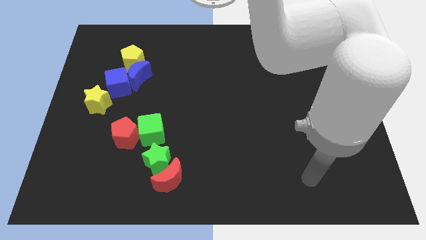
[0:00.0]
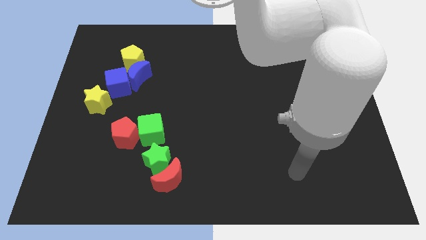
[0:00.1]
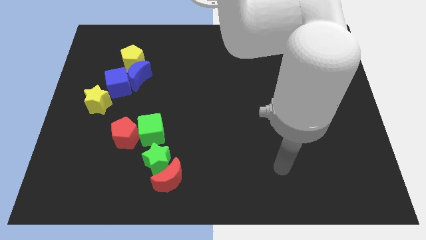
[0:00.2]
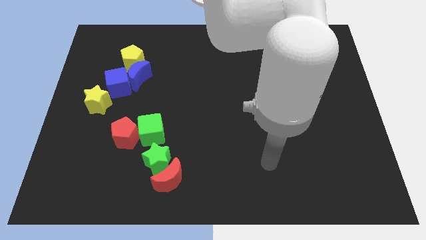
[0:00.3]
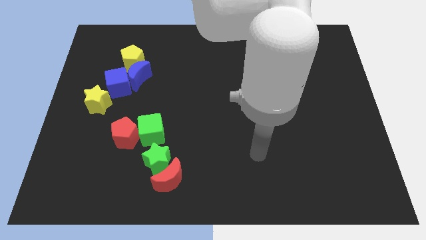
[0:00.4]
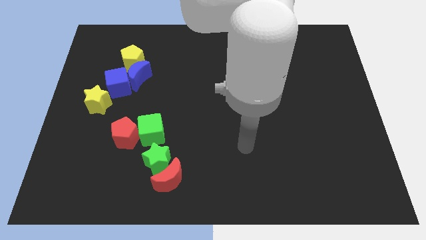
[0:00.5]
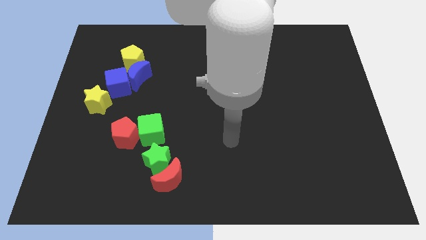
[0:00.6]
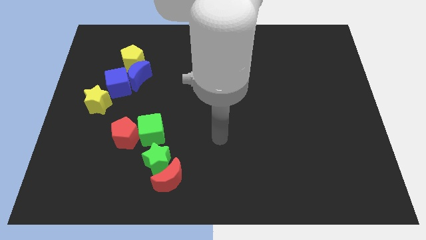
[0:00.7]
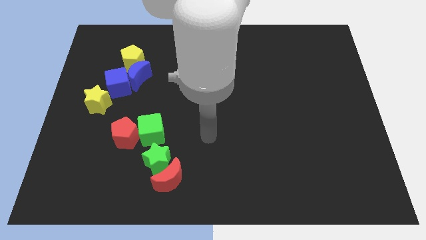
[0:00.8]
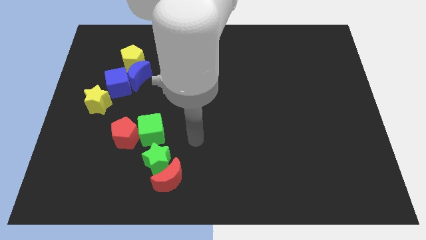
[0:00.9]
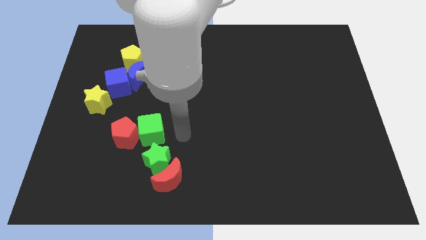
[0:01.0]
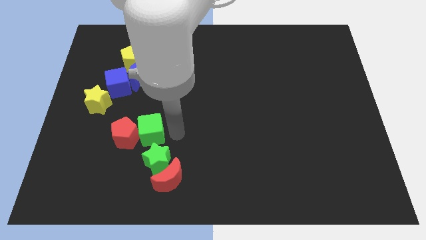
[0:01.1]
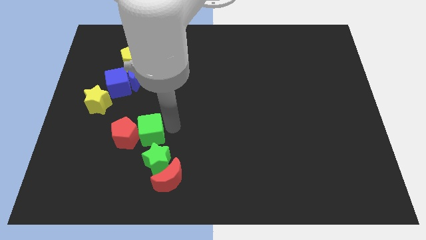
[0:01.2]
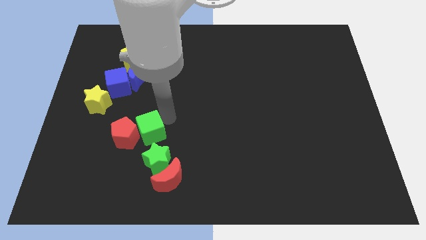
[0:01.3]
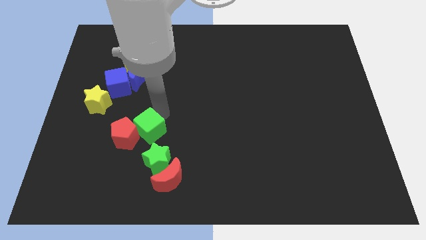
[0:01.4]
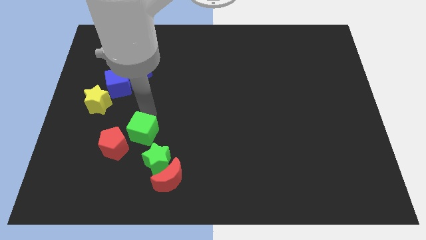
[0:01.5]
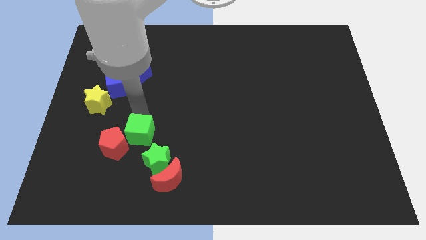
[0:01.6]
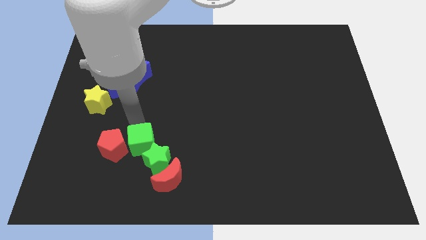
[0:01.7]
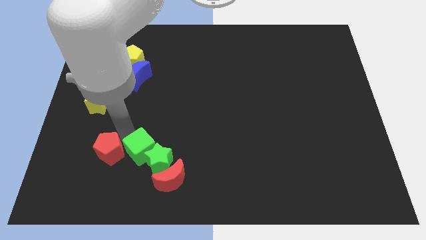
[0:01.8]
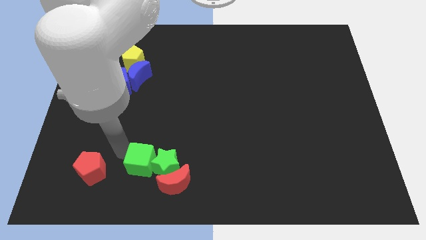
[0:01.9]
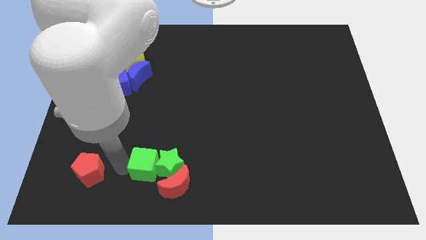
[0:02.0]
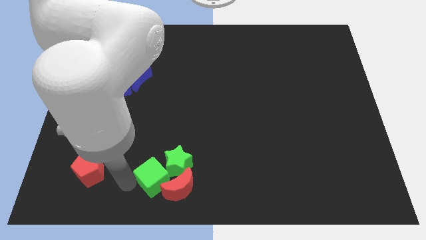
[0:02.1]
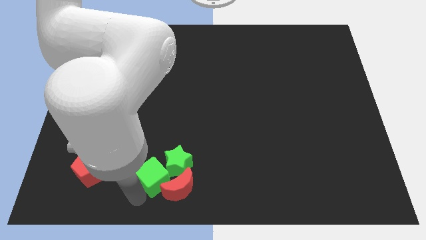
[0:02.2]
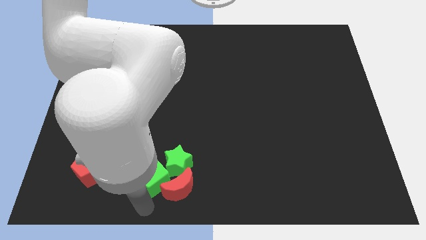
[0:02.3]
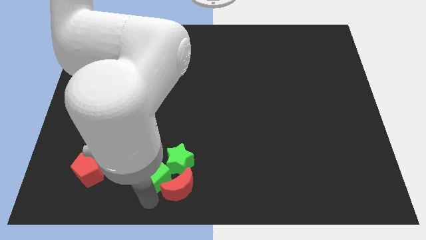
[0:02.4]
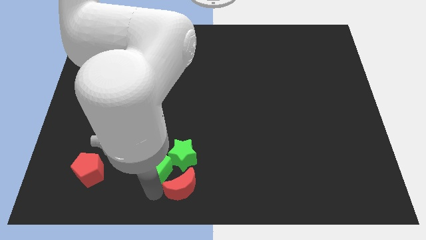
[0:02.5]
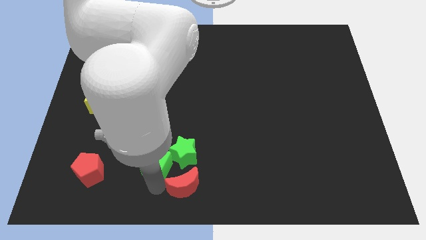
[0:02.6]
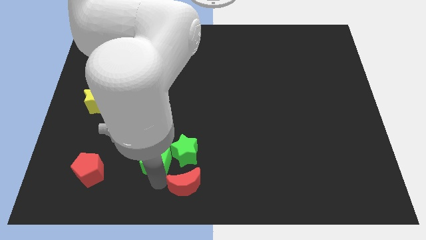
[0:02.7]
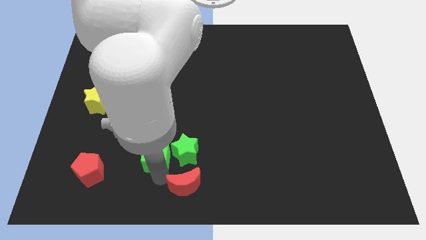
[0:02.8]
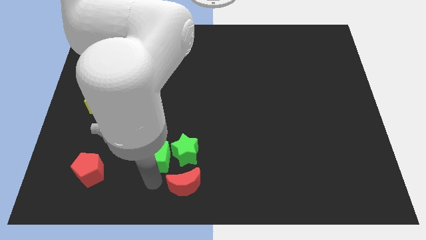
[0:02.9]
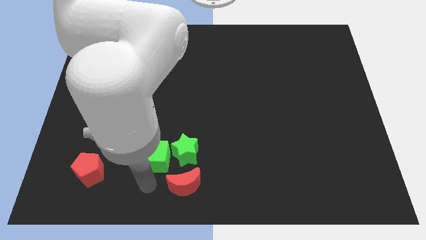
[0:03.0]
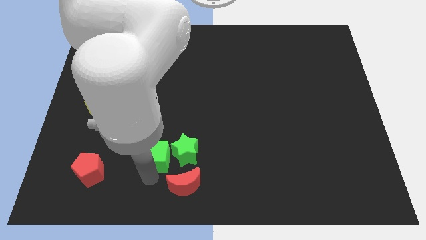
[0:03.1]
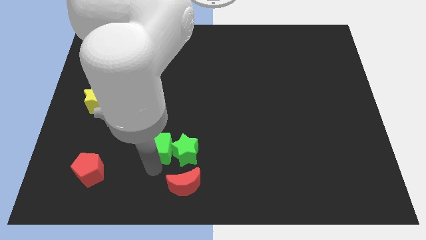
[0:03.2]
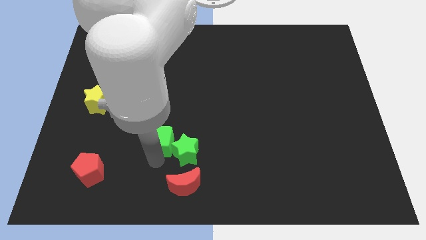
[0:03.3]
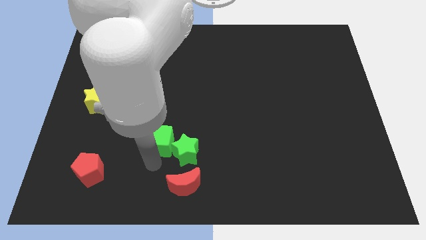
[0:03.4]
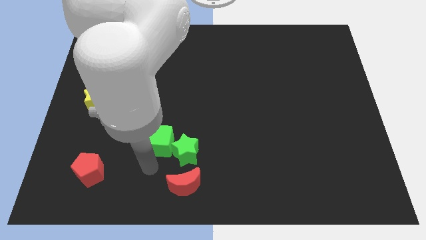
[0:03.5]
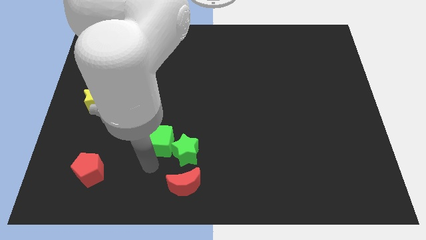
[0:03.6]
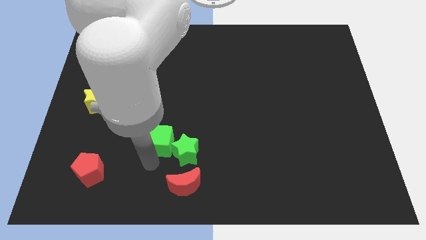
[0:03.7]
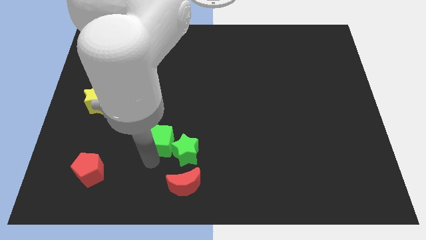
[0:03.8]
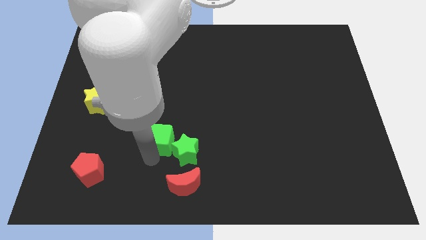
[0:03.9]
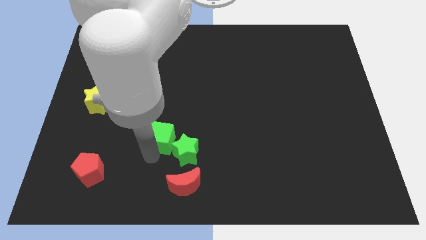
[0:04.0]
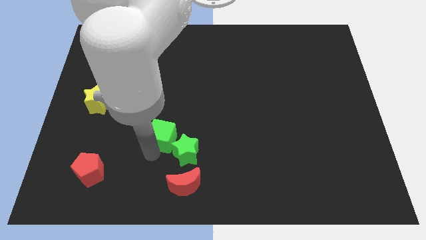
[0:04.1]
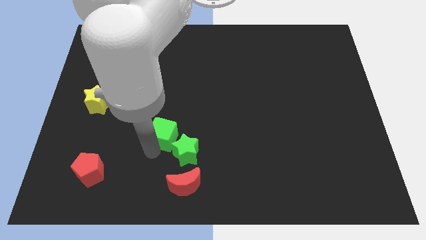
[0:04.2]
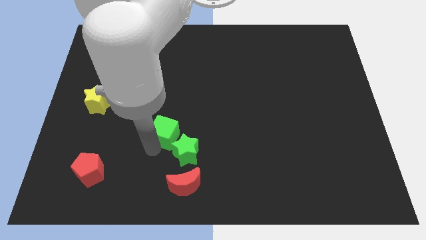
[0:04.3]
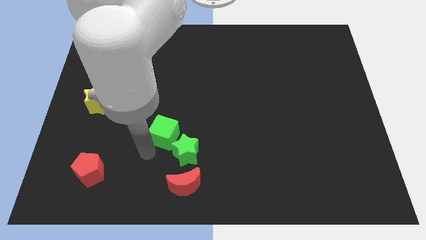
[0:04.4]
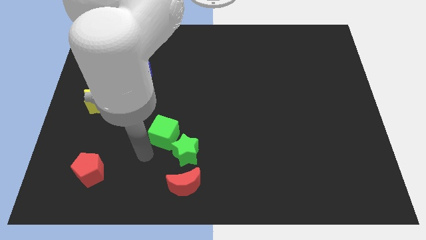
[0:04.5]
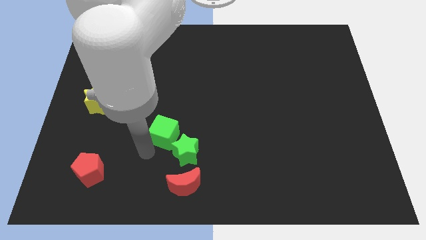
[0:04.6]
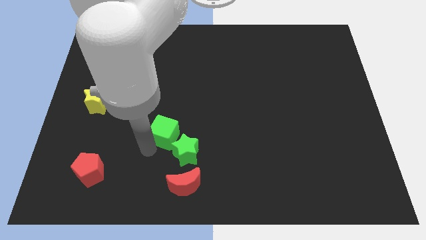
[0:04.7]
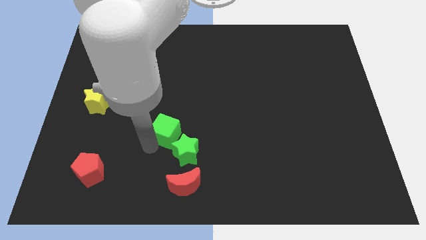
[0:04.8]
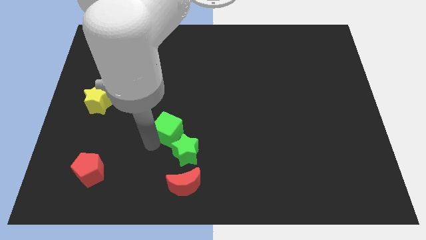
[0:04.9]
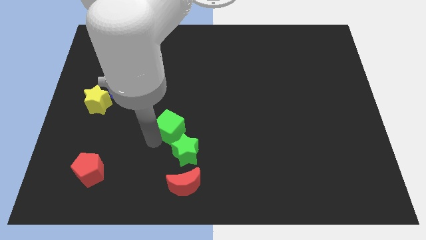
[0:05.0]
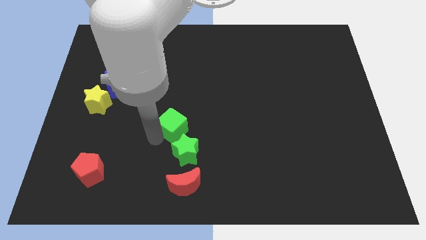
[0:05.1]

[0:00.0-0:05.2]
put the green cube to the middle

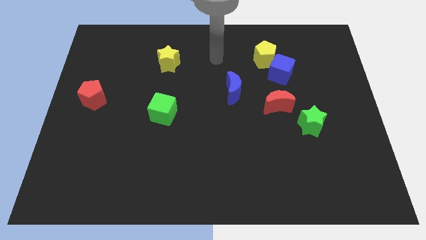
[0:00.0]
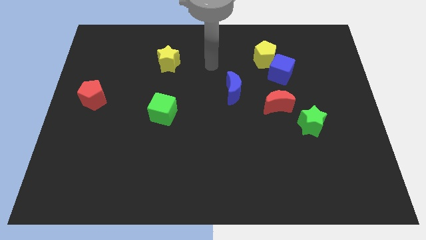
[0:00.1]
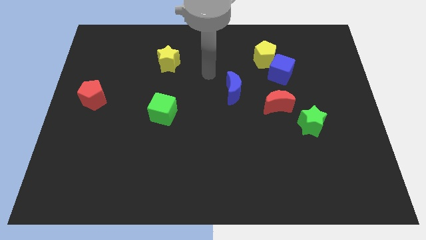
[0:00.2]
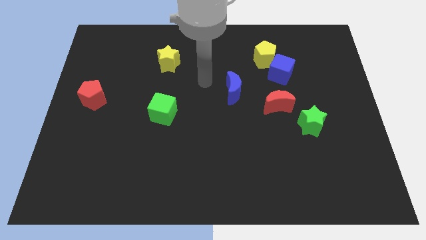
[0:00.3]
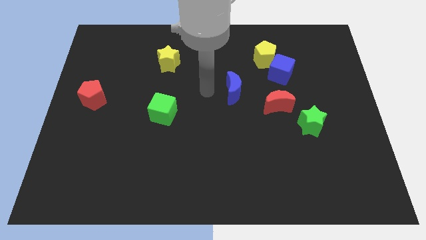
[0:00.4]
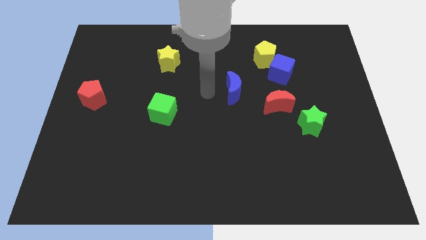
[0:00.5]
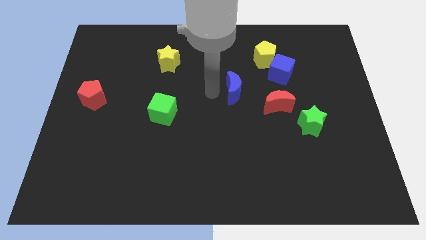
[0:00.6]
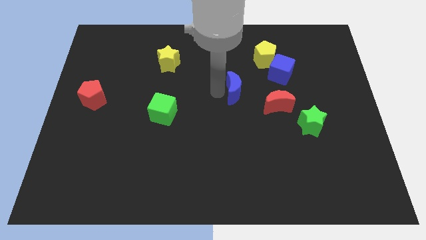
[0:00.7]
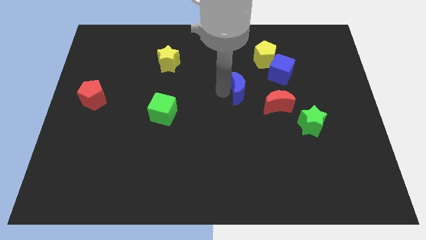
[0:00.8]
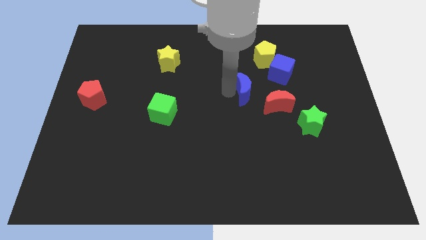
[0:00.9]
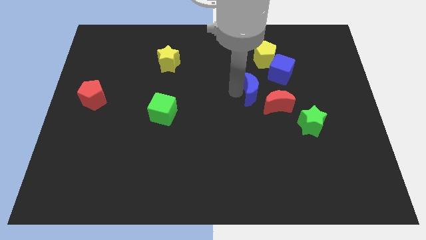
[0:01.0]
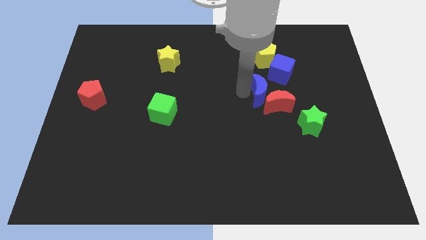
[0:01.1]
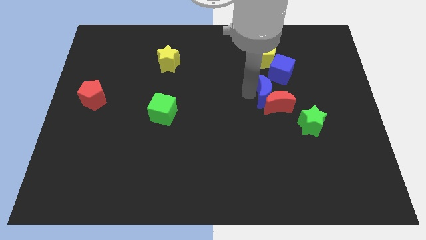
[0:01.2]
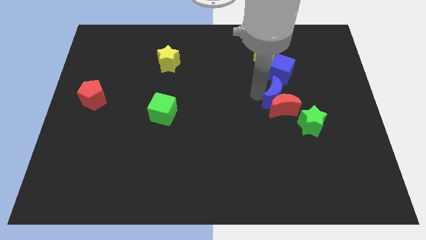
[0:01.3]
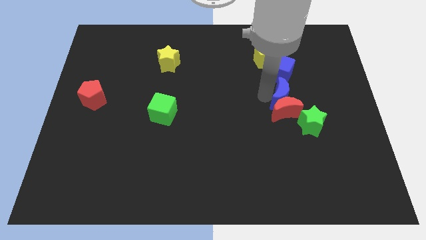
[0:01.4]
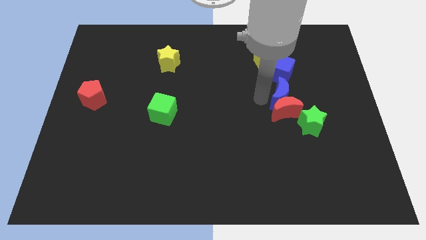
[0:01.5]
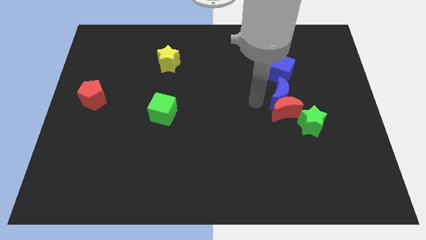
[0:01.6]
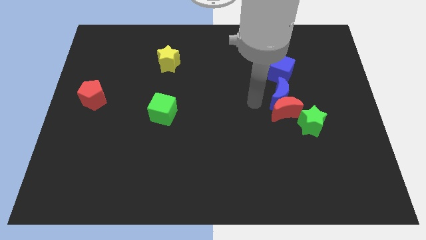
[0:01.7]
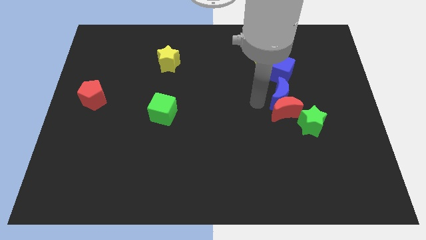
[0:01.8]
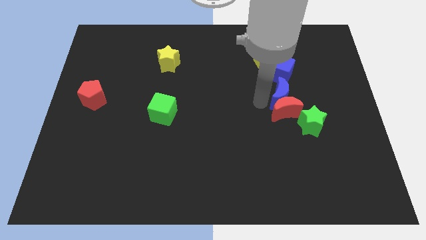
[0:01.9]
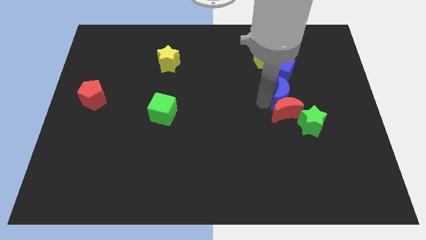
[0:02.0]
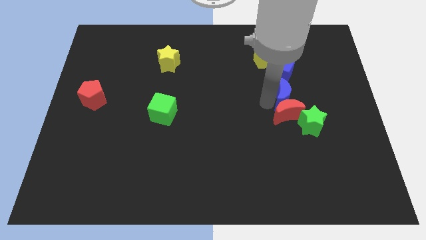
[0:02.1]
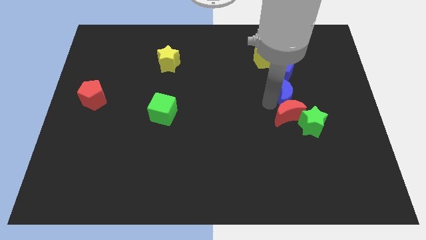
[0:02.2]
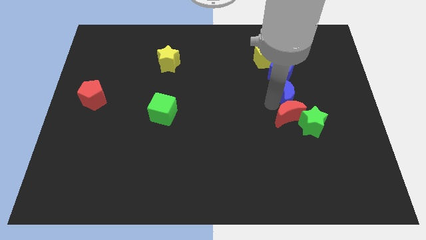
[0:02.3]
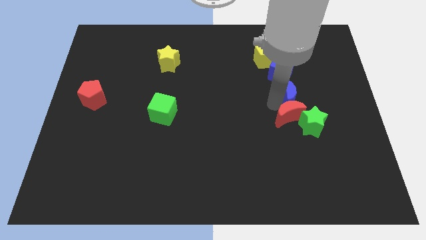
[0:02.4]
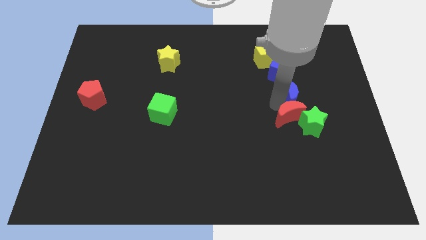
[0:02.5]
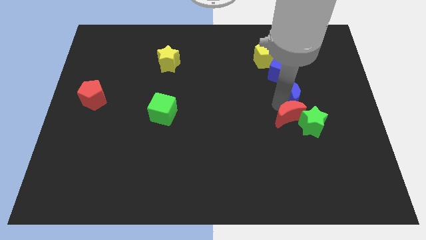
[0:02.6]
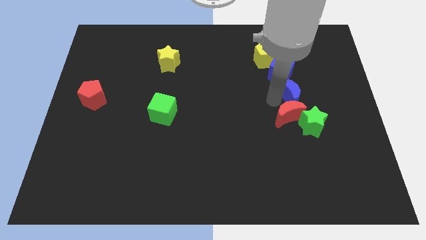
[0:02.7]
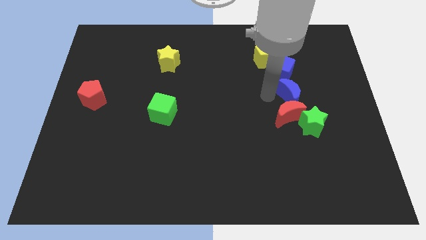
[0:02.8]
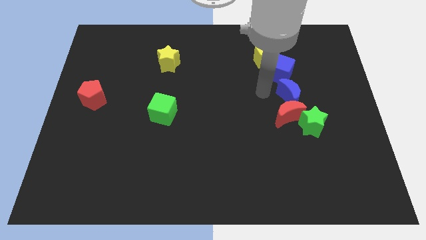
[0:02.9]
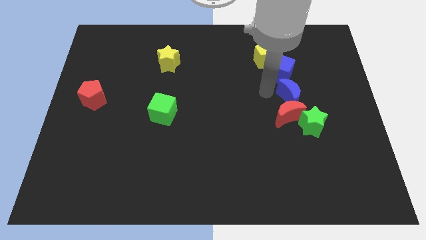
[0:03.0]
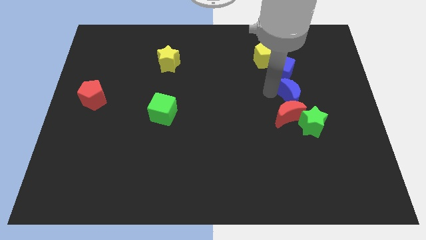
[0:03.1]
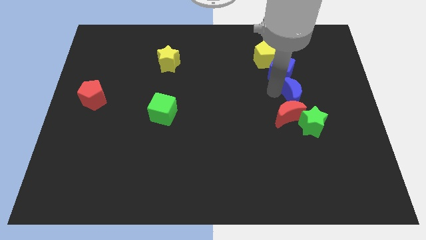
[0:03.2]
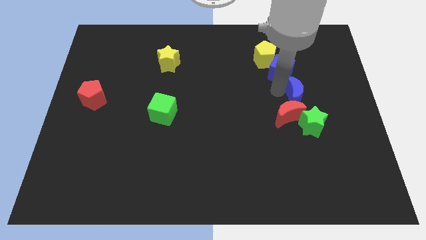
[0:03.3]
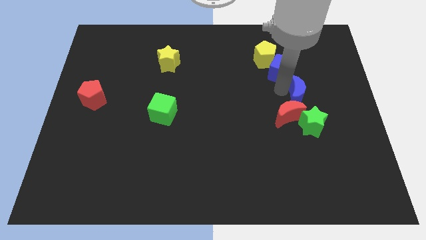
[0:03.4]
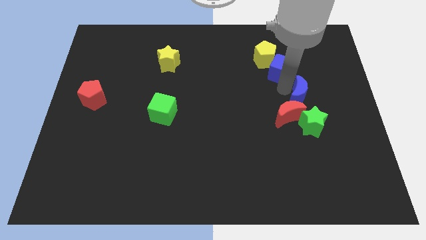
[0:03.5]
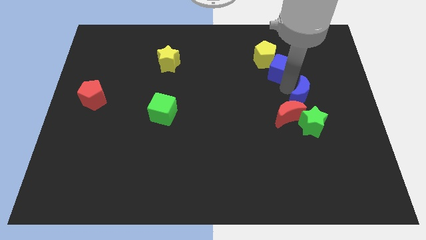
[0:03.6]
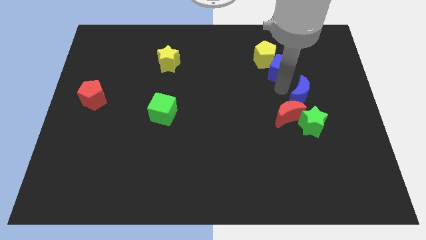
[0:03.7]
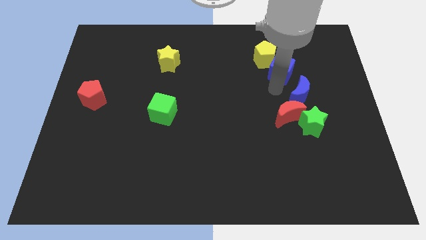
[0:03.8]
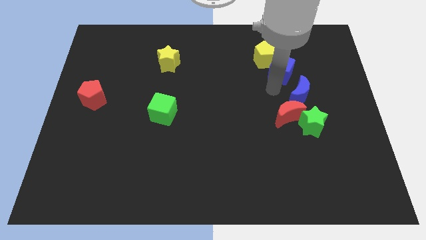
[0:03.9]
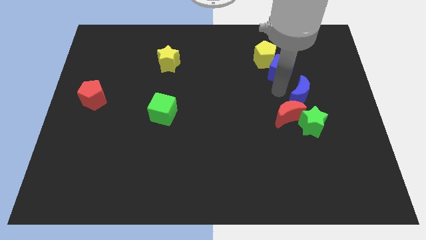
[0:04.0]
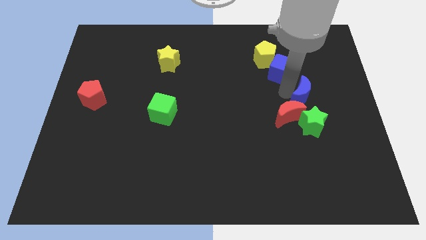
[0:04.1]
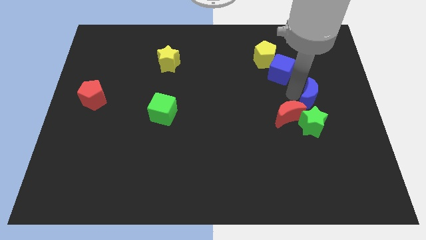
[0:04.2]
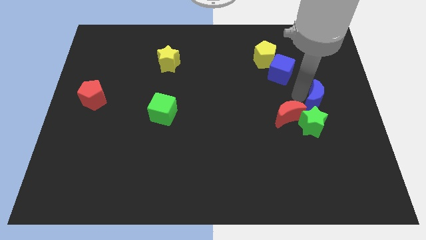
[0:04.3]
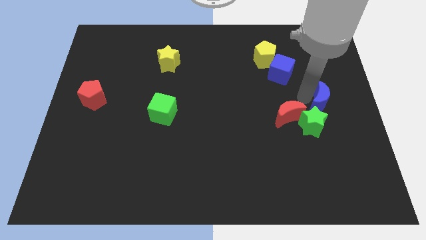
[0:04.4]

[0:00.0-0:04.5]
put the blue moon to the right side of the board
